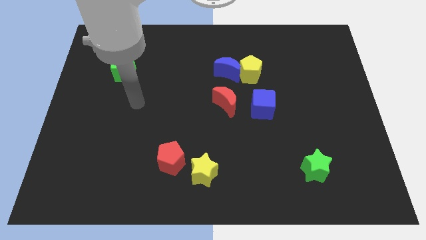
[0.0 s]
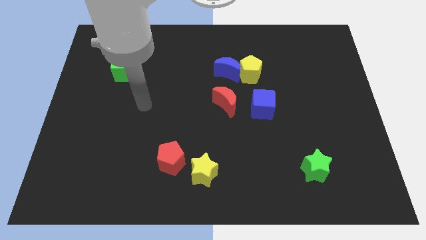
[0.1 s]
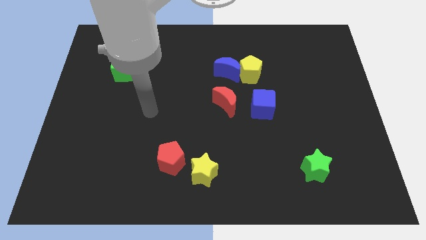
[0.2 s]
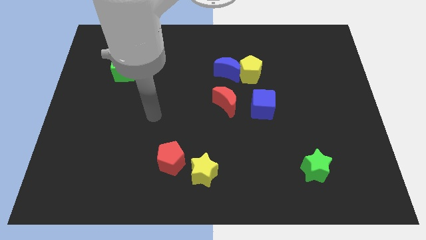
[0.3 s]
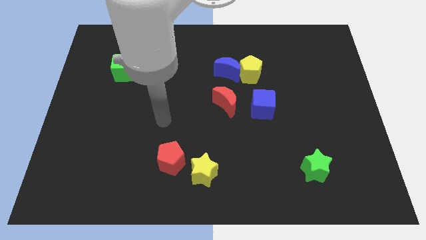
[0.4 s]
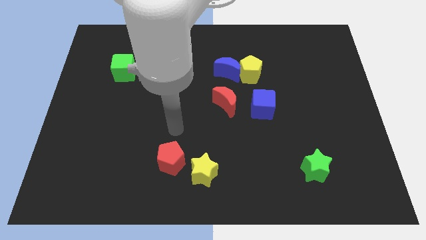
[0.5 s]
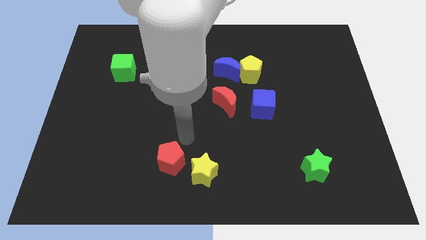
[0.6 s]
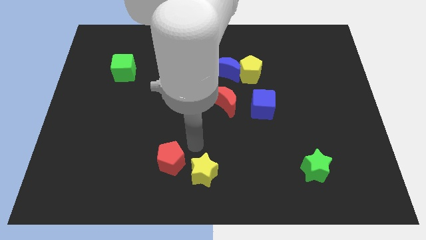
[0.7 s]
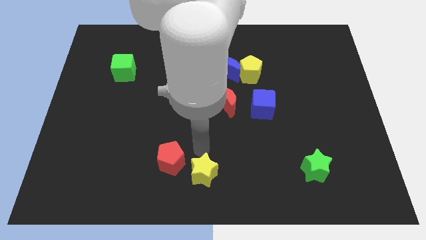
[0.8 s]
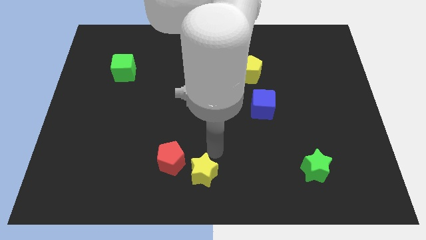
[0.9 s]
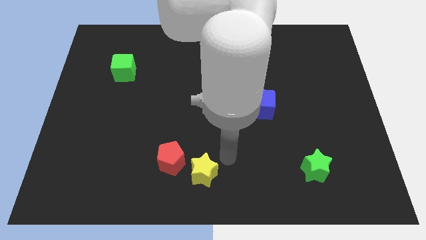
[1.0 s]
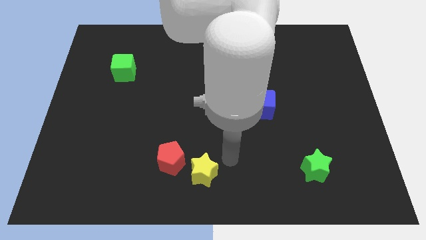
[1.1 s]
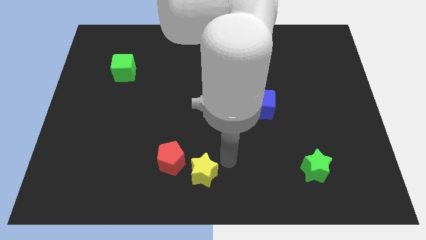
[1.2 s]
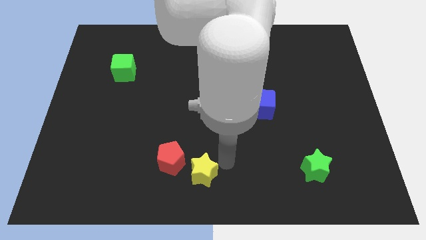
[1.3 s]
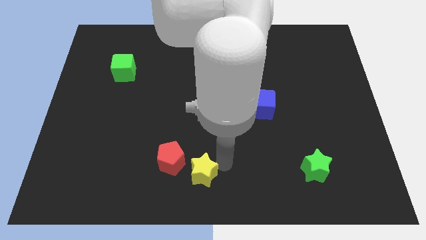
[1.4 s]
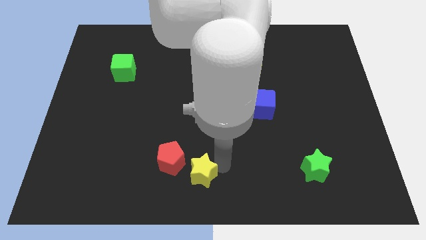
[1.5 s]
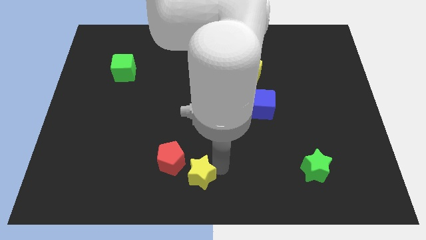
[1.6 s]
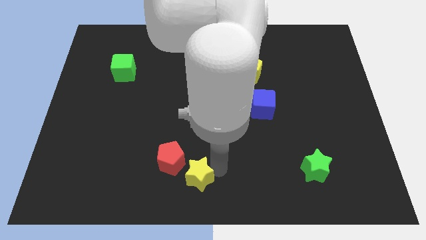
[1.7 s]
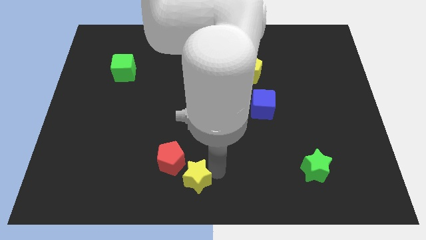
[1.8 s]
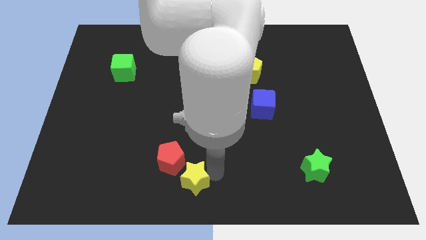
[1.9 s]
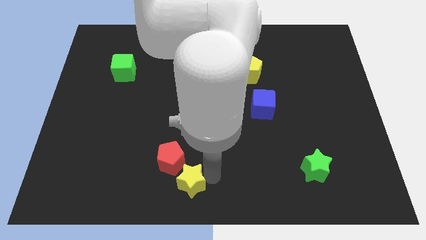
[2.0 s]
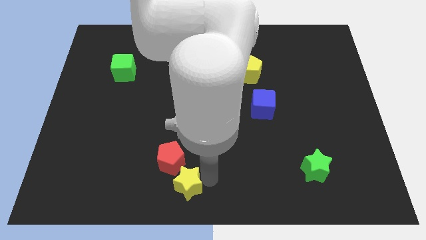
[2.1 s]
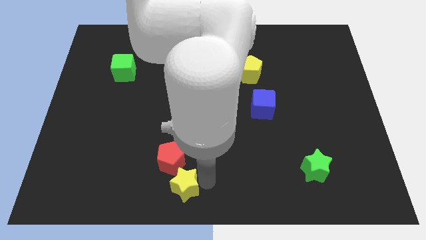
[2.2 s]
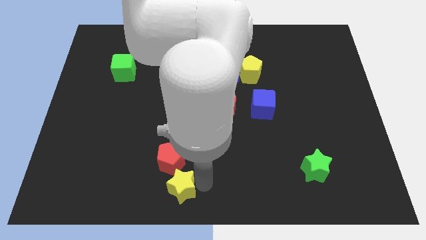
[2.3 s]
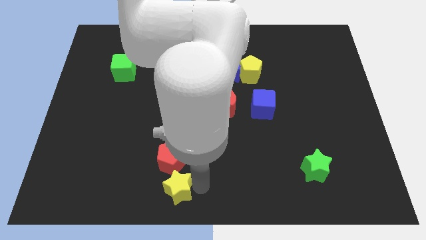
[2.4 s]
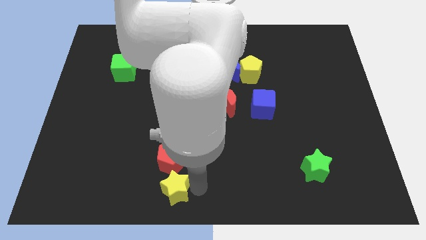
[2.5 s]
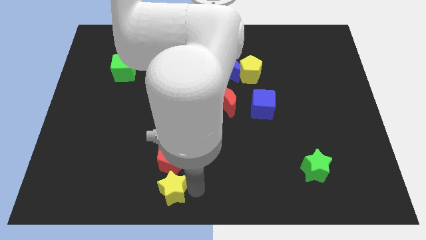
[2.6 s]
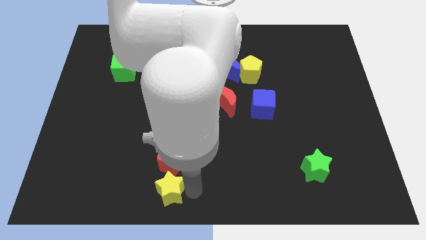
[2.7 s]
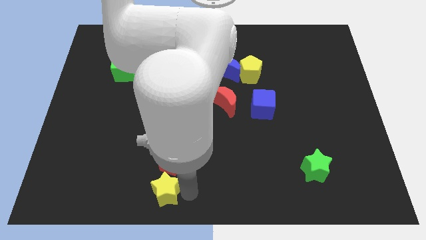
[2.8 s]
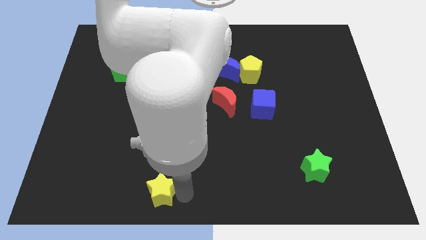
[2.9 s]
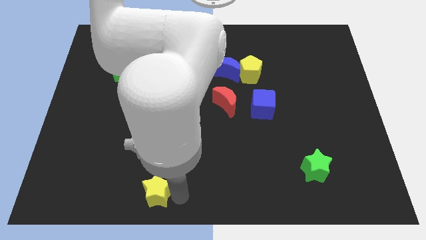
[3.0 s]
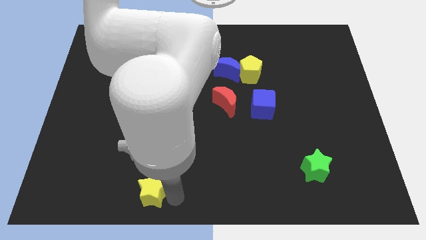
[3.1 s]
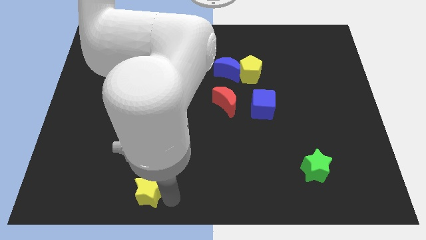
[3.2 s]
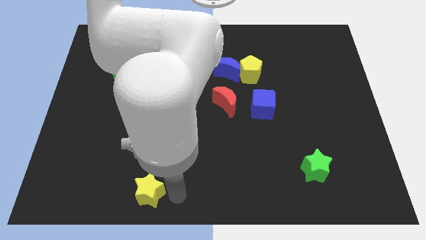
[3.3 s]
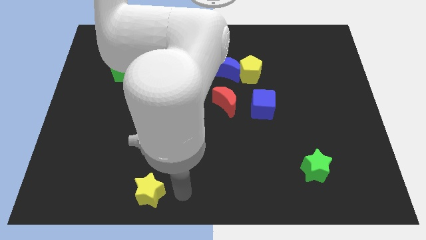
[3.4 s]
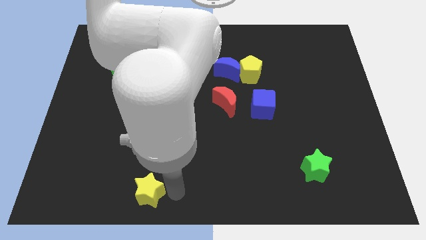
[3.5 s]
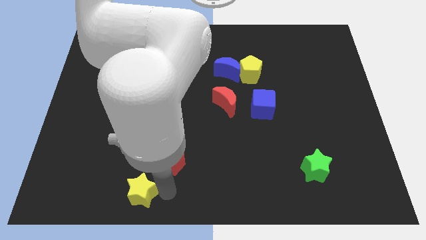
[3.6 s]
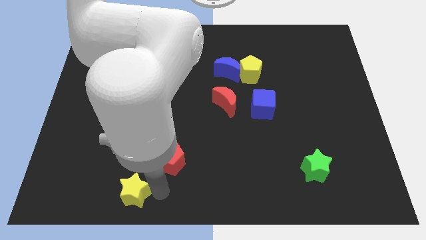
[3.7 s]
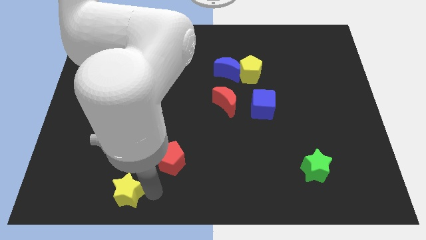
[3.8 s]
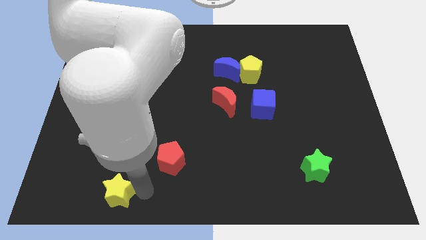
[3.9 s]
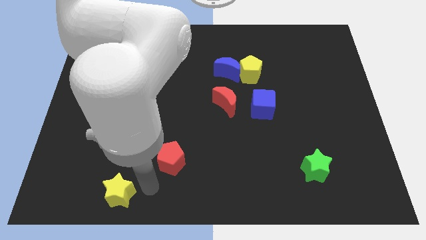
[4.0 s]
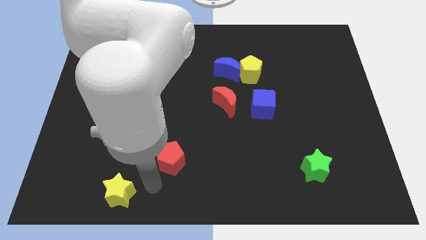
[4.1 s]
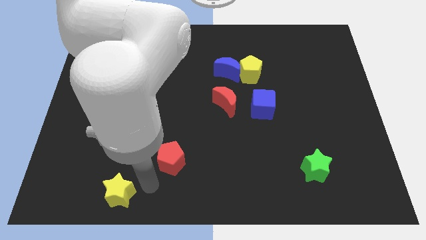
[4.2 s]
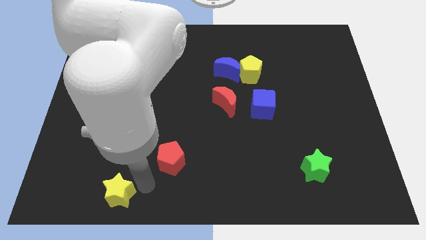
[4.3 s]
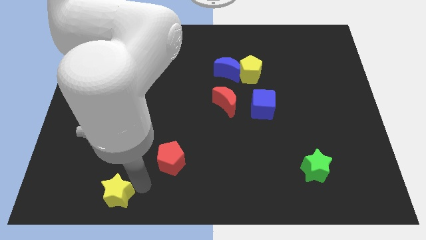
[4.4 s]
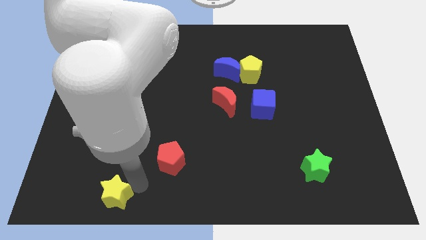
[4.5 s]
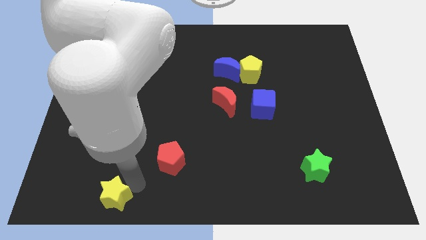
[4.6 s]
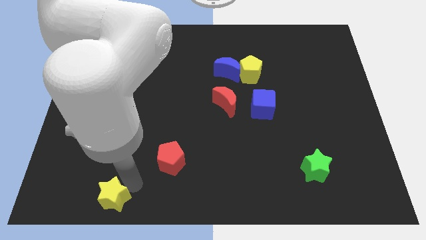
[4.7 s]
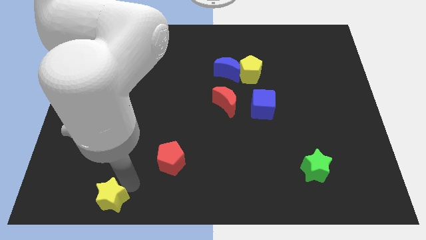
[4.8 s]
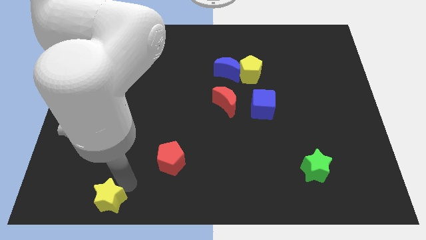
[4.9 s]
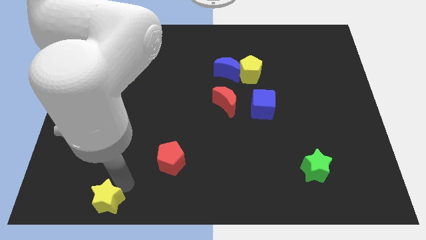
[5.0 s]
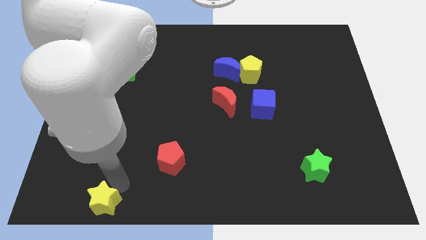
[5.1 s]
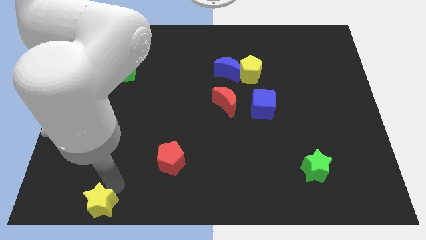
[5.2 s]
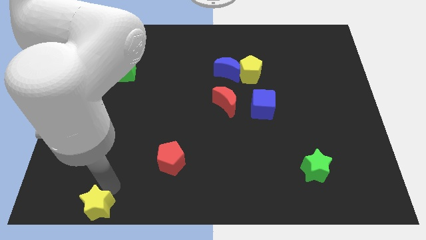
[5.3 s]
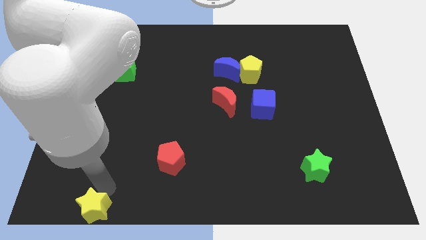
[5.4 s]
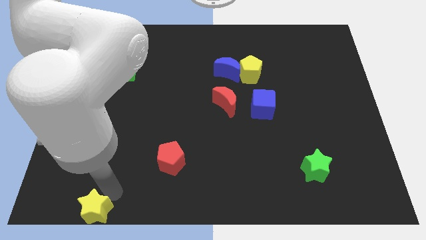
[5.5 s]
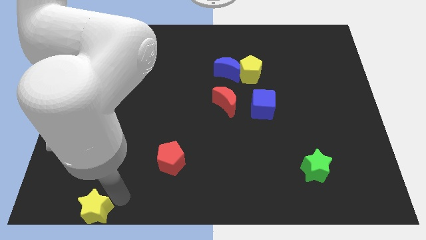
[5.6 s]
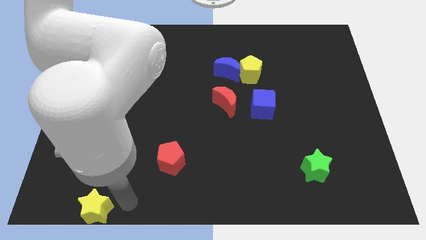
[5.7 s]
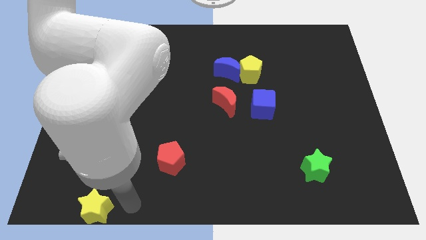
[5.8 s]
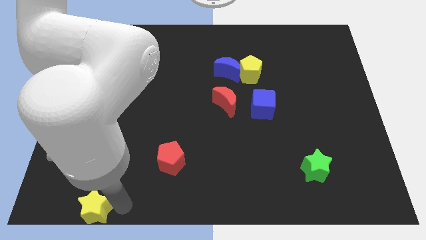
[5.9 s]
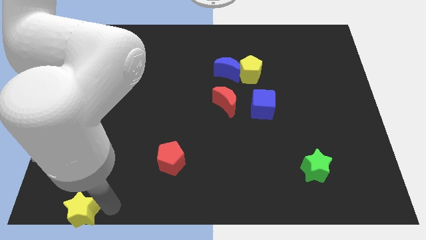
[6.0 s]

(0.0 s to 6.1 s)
put the yellow star to the bottom left of the board

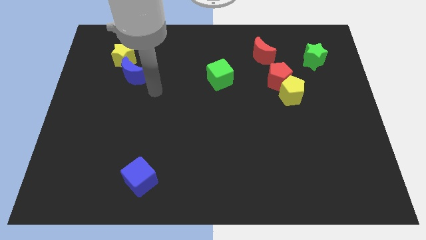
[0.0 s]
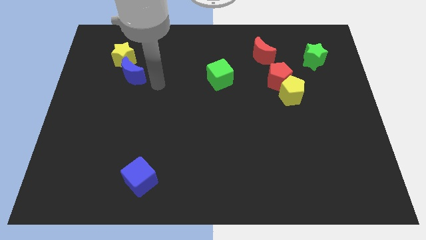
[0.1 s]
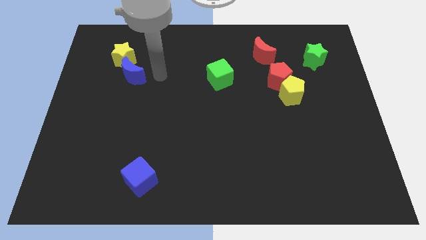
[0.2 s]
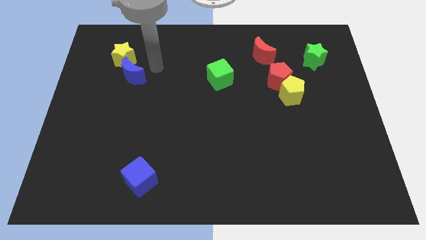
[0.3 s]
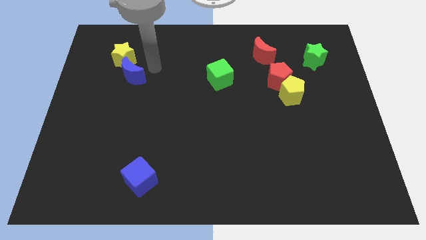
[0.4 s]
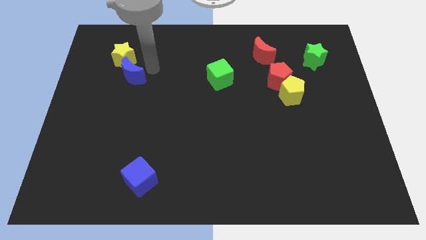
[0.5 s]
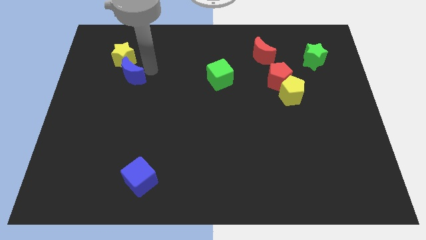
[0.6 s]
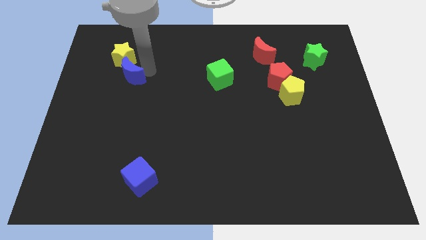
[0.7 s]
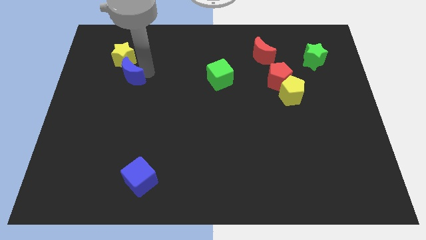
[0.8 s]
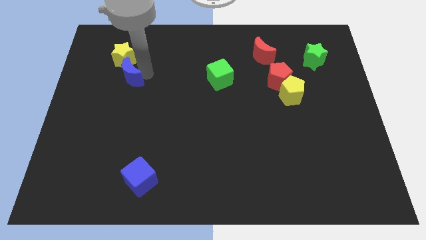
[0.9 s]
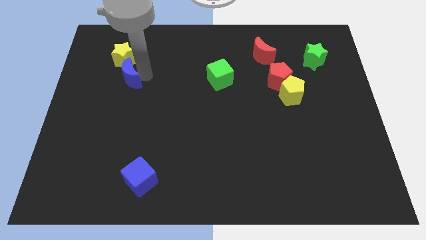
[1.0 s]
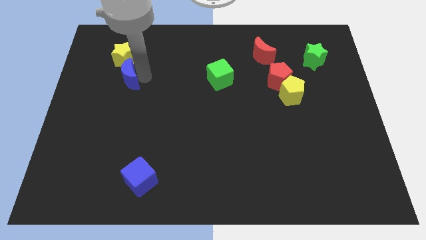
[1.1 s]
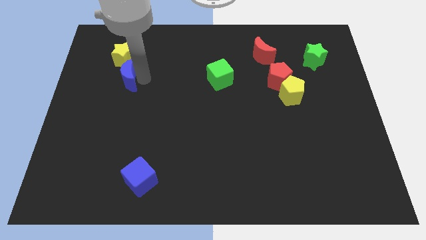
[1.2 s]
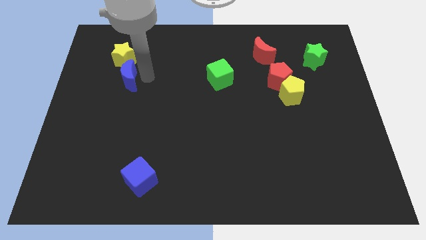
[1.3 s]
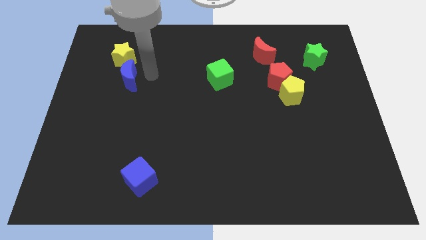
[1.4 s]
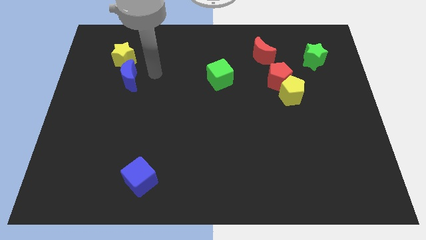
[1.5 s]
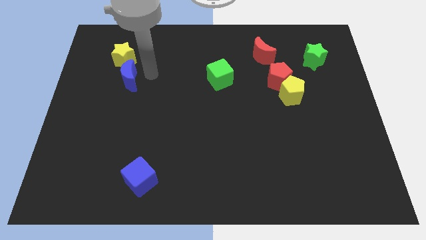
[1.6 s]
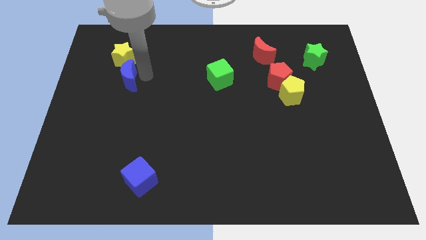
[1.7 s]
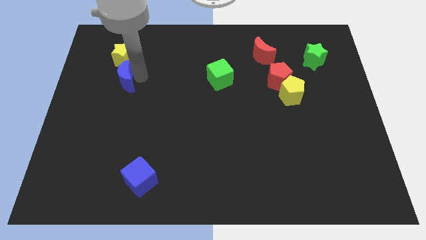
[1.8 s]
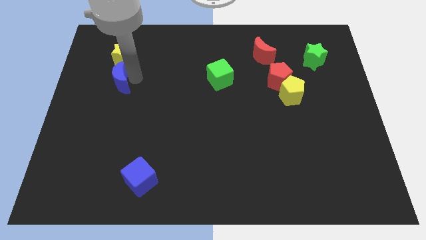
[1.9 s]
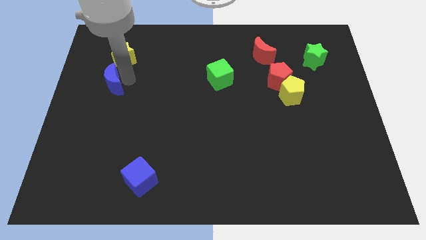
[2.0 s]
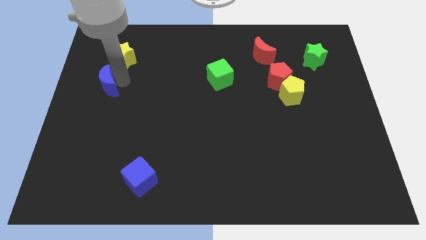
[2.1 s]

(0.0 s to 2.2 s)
move the blue moon to the left side
